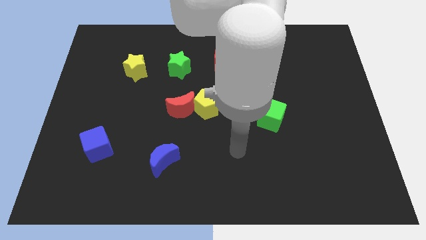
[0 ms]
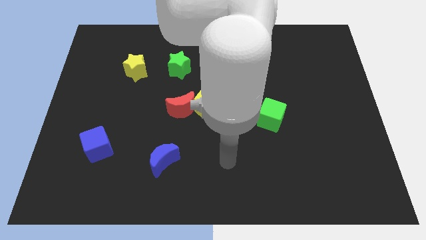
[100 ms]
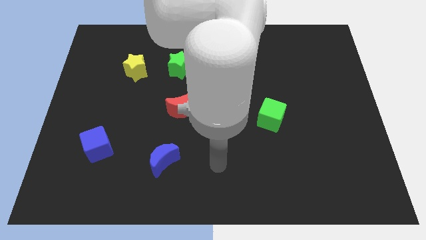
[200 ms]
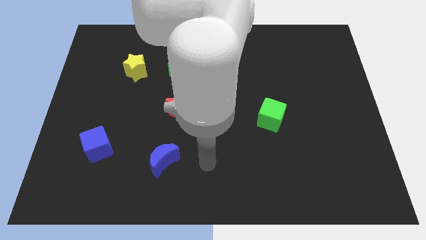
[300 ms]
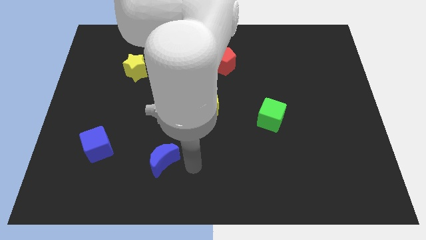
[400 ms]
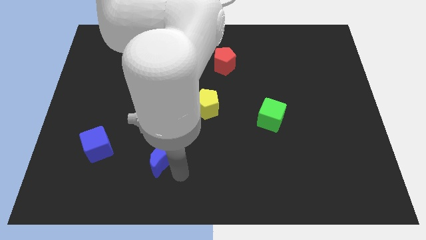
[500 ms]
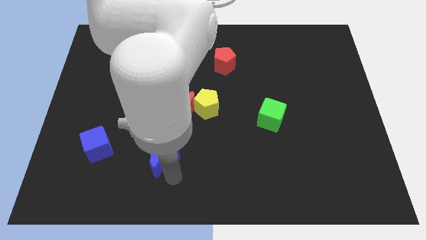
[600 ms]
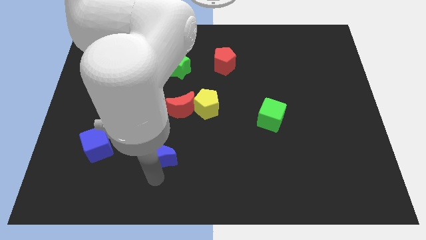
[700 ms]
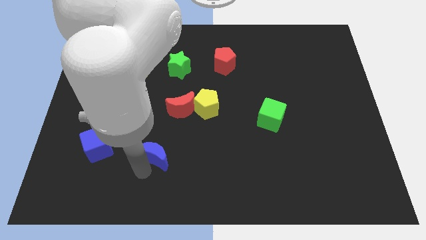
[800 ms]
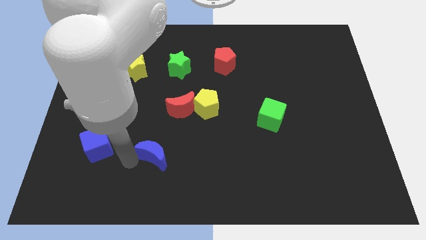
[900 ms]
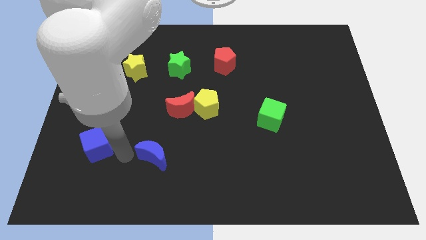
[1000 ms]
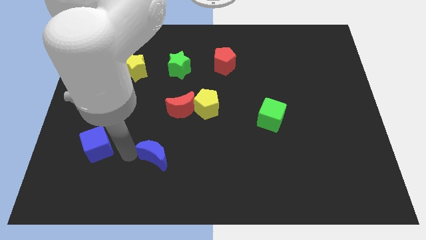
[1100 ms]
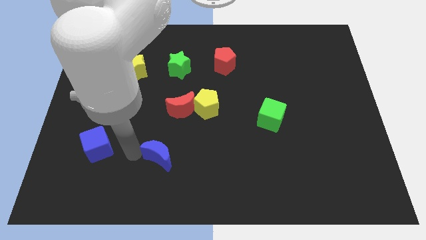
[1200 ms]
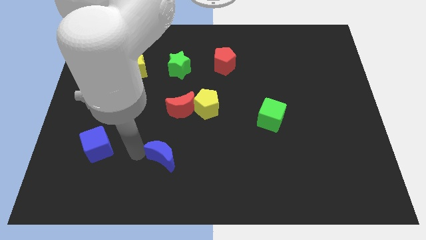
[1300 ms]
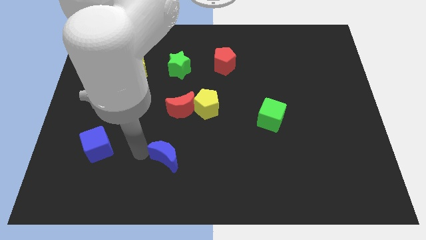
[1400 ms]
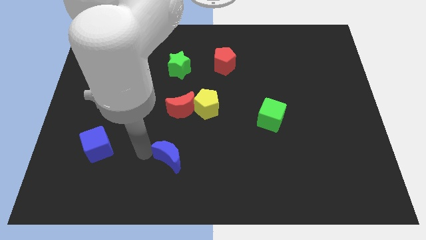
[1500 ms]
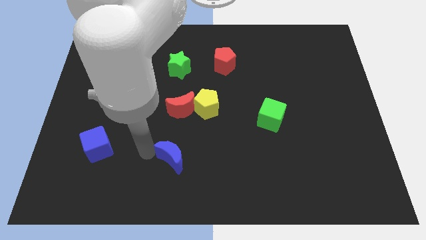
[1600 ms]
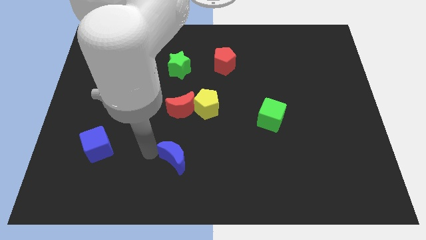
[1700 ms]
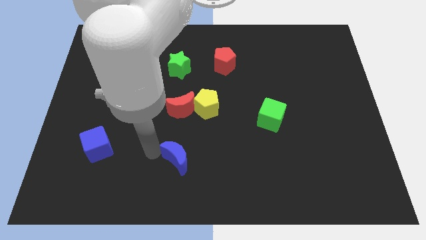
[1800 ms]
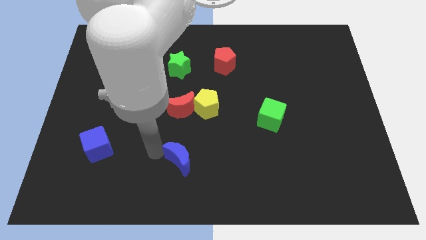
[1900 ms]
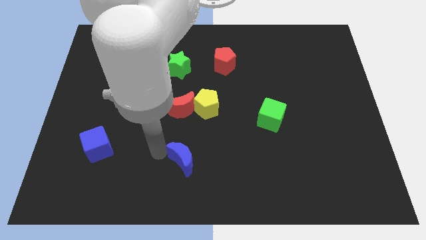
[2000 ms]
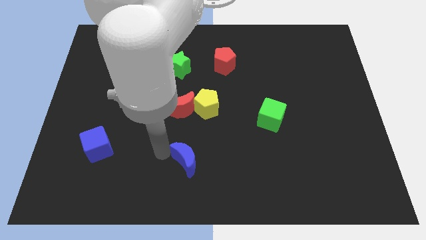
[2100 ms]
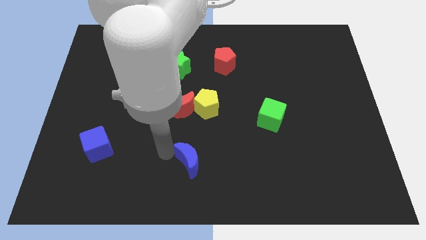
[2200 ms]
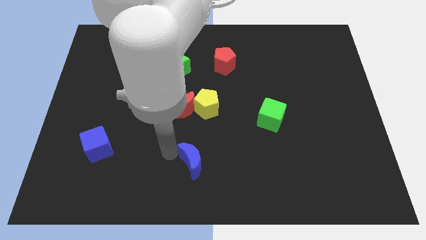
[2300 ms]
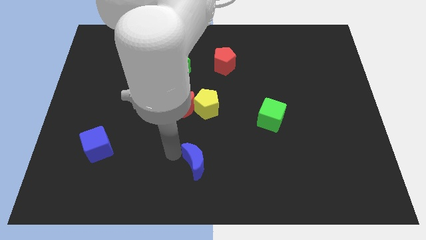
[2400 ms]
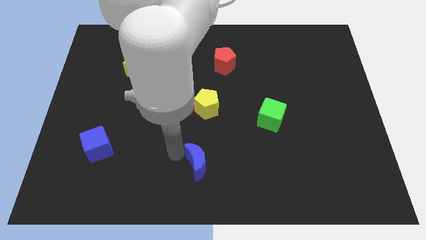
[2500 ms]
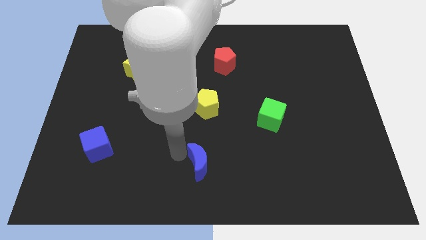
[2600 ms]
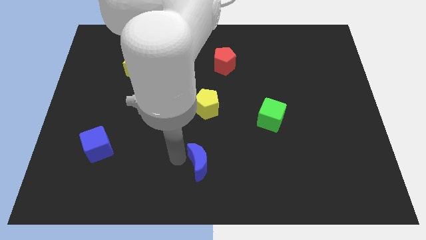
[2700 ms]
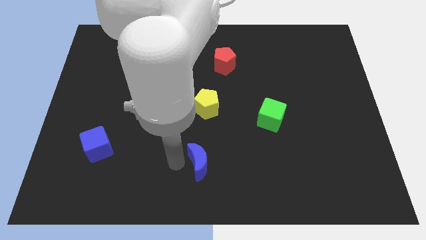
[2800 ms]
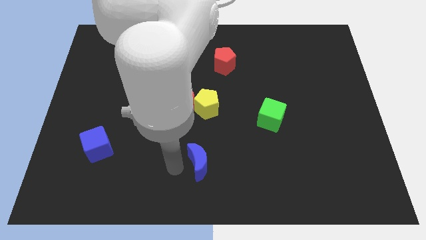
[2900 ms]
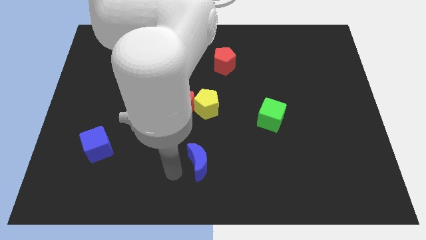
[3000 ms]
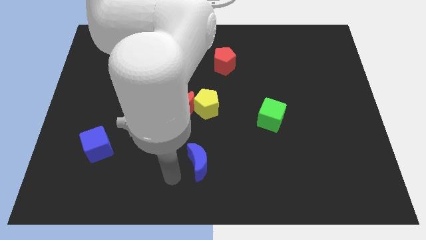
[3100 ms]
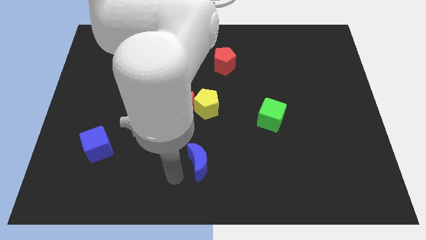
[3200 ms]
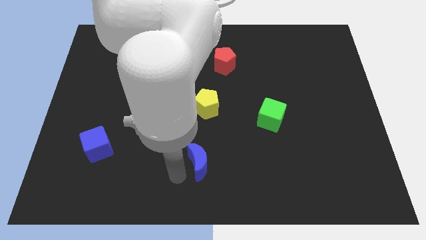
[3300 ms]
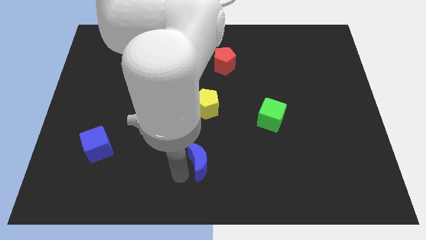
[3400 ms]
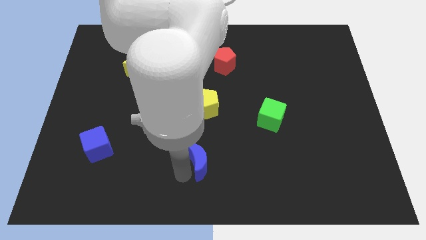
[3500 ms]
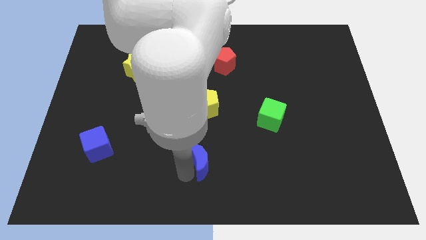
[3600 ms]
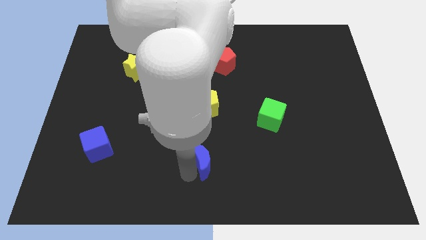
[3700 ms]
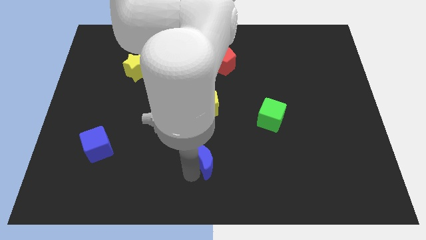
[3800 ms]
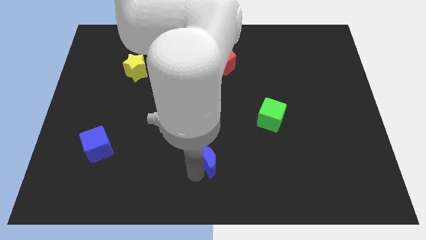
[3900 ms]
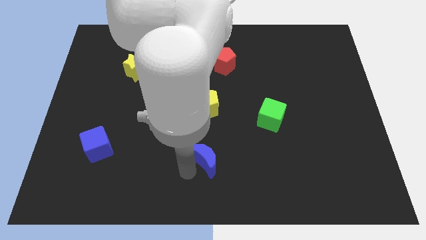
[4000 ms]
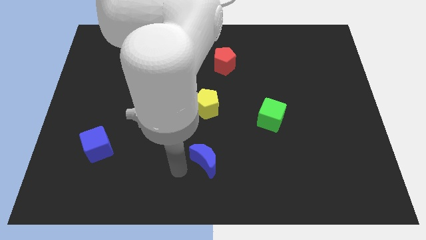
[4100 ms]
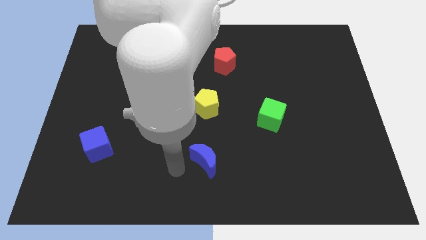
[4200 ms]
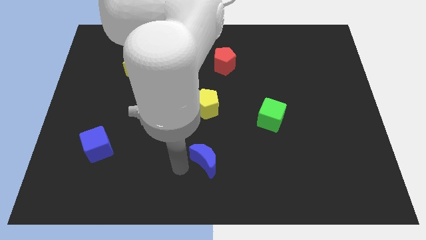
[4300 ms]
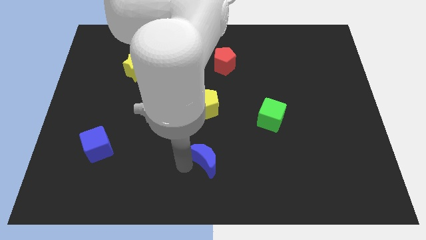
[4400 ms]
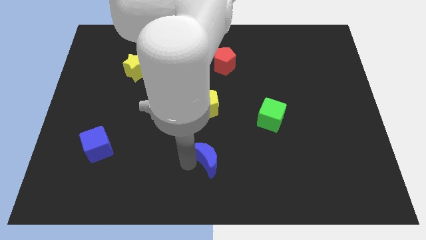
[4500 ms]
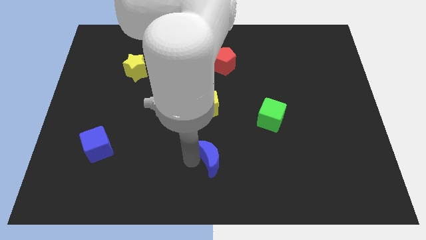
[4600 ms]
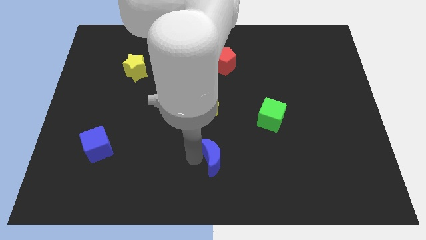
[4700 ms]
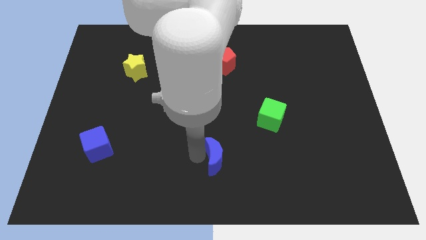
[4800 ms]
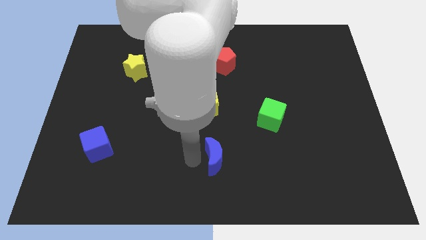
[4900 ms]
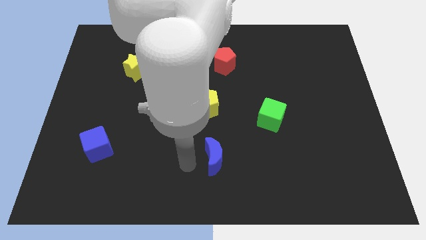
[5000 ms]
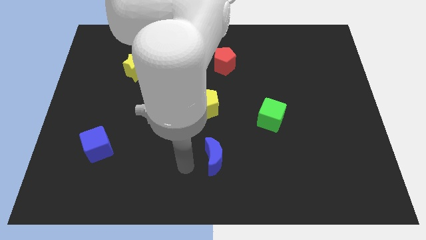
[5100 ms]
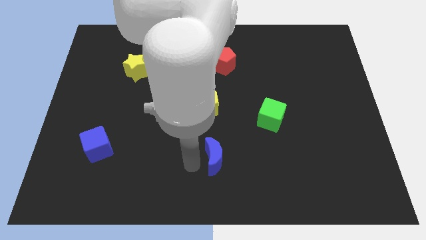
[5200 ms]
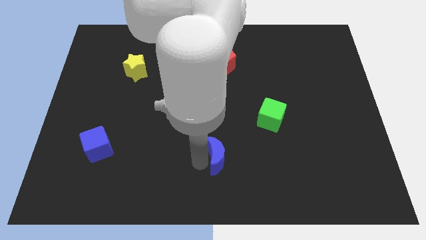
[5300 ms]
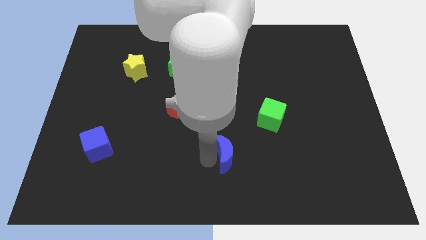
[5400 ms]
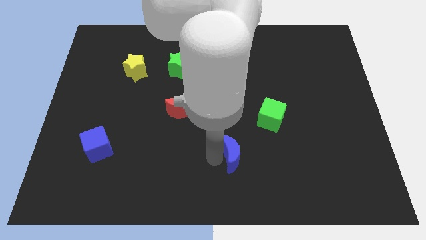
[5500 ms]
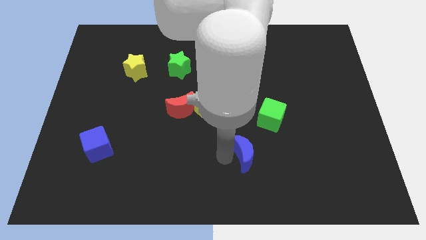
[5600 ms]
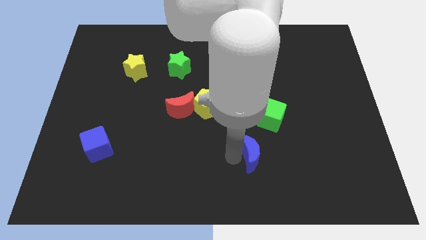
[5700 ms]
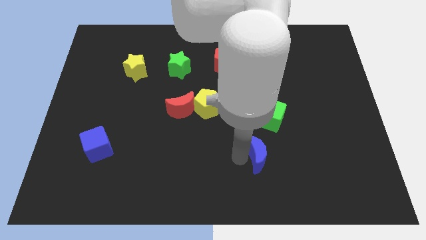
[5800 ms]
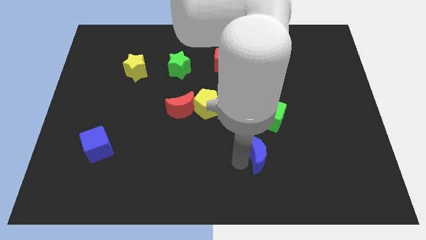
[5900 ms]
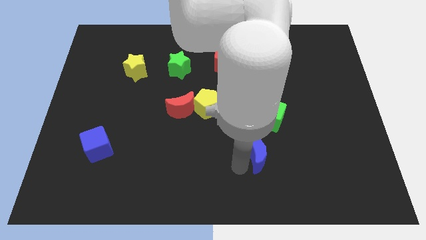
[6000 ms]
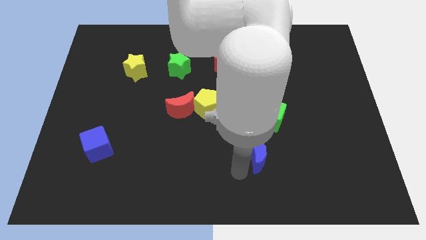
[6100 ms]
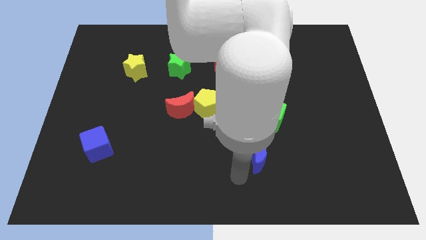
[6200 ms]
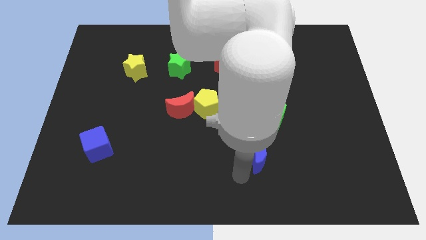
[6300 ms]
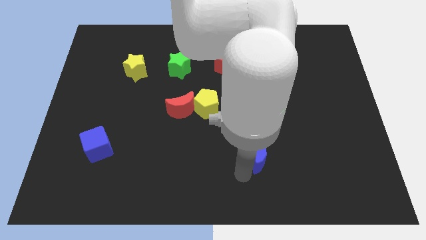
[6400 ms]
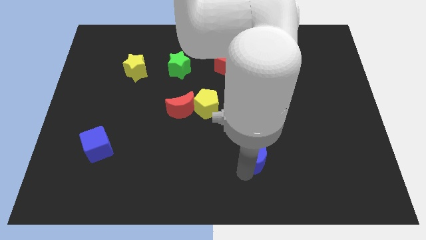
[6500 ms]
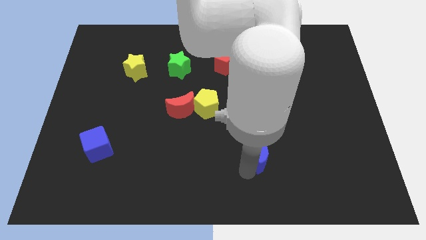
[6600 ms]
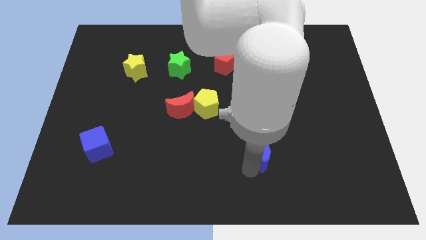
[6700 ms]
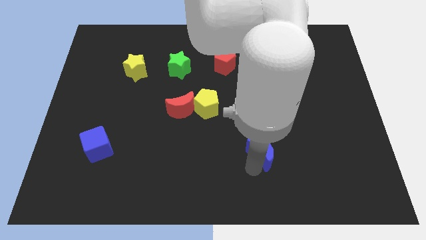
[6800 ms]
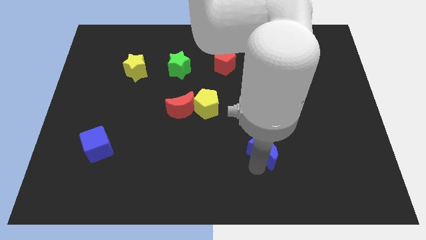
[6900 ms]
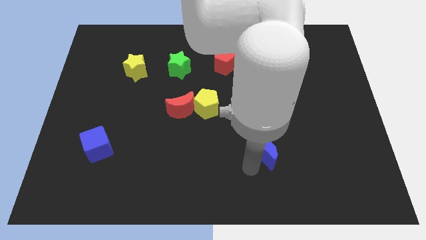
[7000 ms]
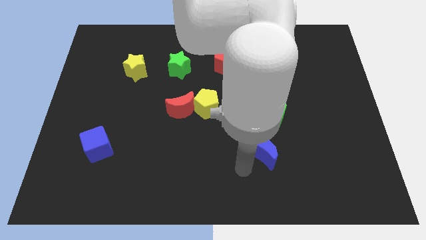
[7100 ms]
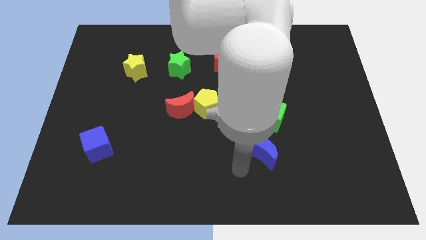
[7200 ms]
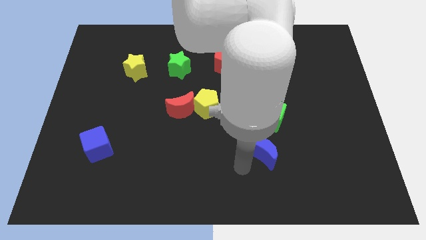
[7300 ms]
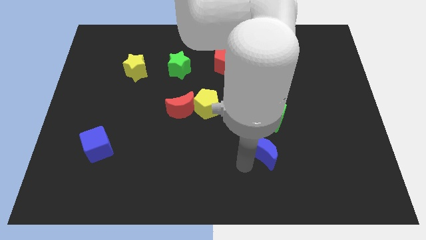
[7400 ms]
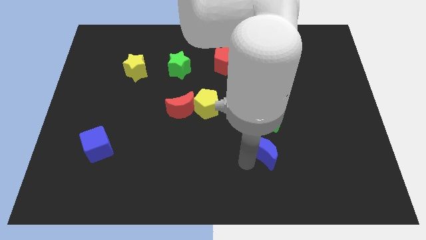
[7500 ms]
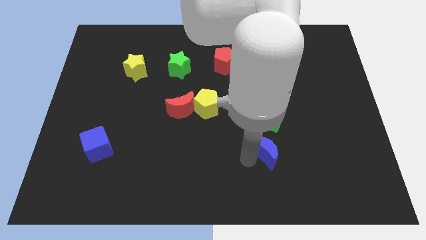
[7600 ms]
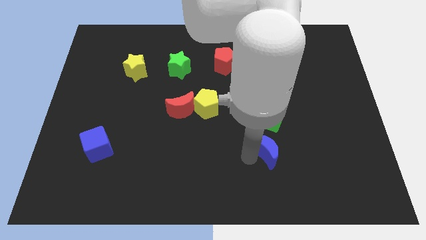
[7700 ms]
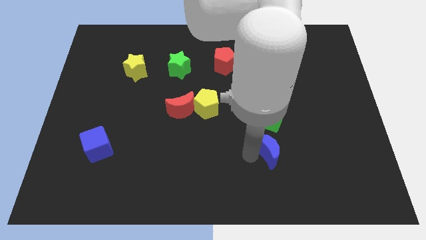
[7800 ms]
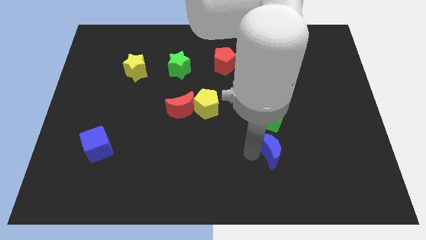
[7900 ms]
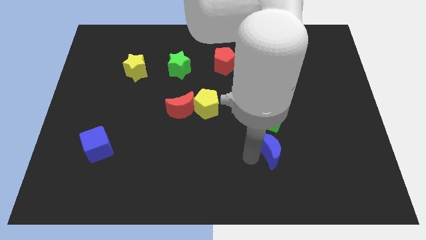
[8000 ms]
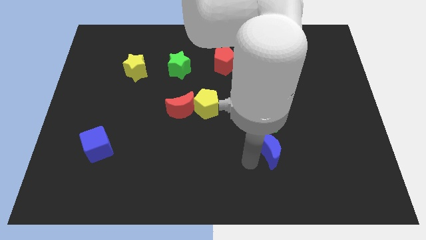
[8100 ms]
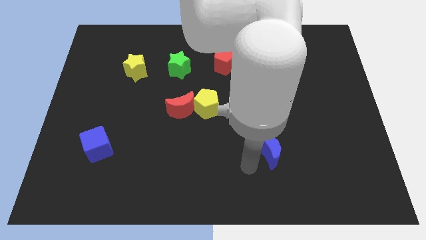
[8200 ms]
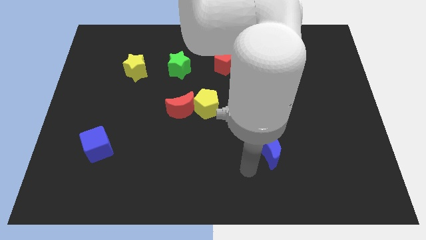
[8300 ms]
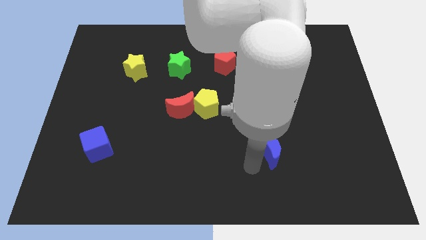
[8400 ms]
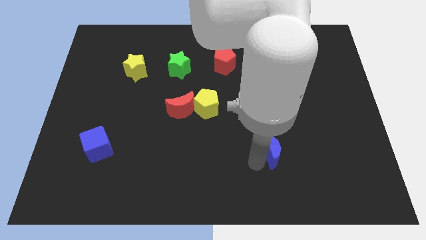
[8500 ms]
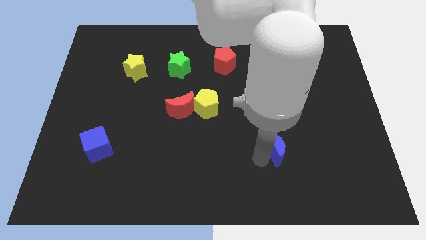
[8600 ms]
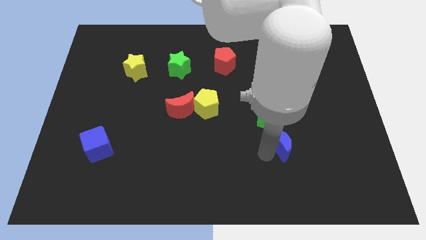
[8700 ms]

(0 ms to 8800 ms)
put the blue moon to the bottom right of the green cube
